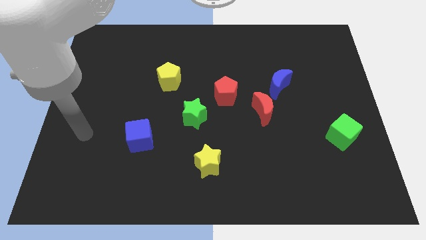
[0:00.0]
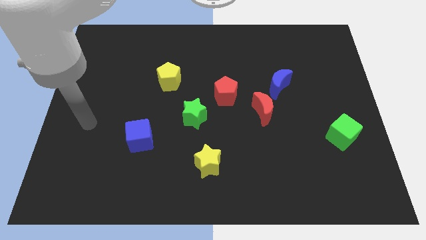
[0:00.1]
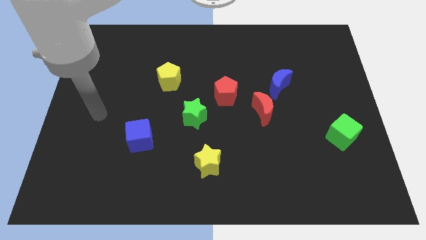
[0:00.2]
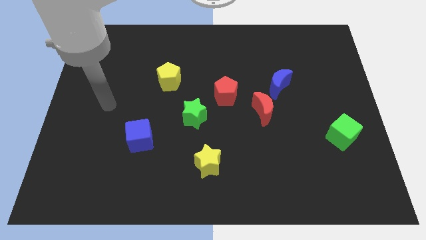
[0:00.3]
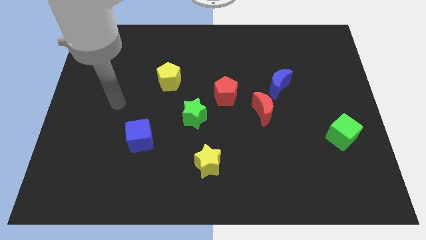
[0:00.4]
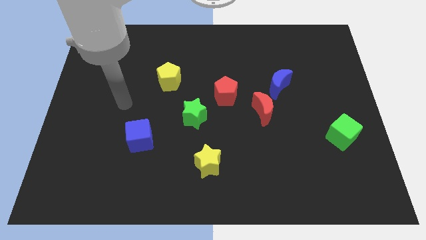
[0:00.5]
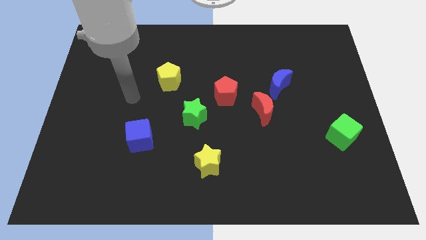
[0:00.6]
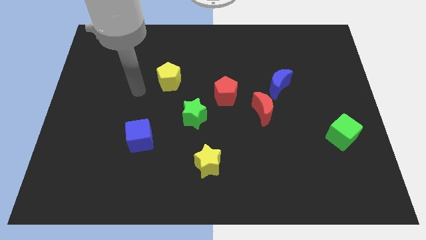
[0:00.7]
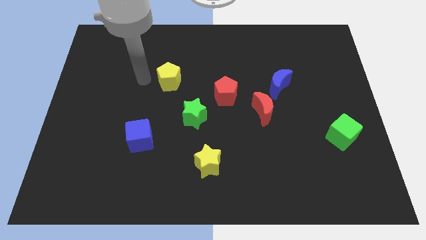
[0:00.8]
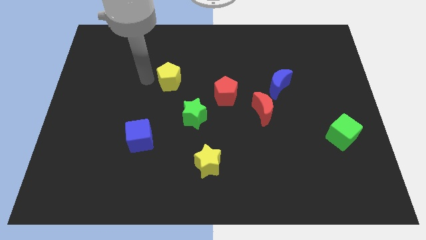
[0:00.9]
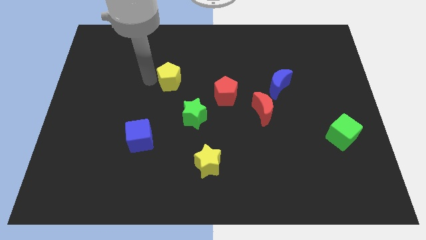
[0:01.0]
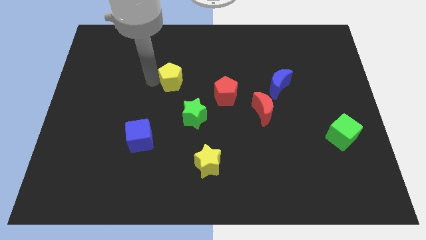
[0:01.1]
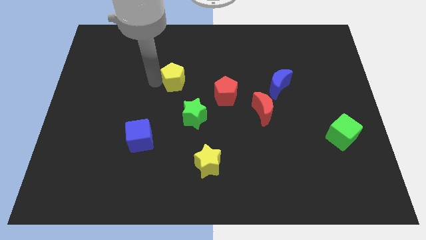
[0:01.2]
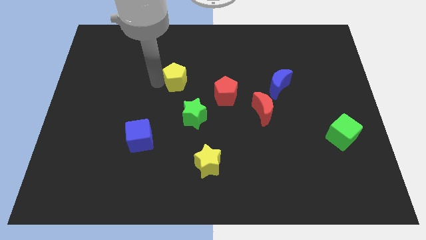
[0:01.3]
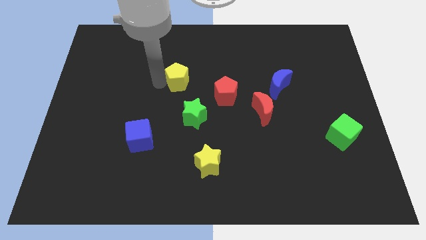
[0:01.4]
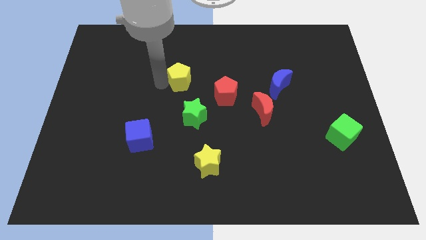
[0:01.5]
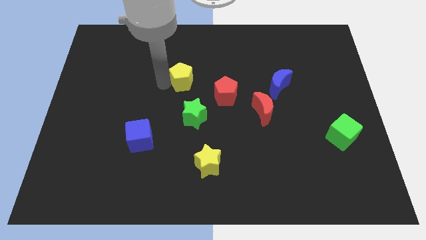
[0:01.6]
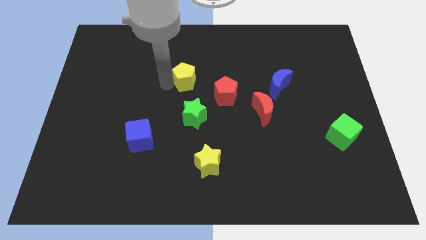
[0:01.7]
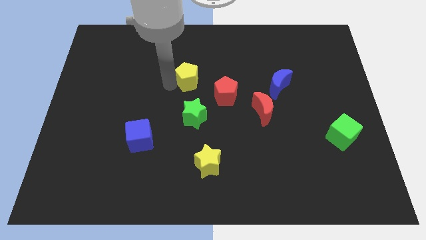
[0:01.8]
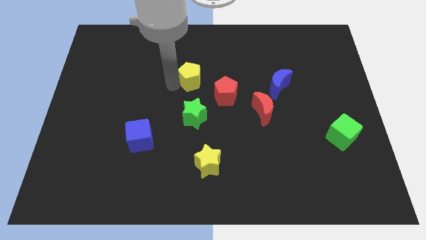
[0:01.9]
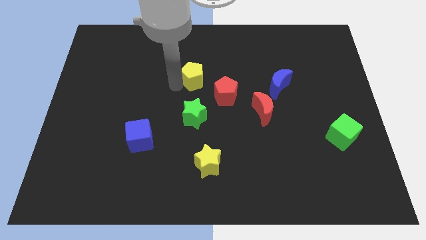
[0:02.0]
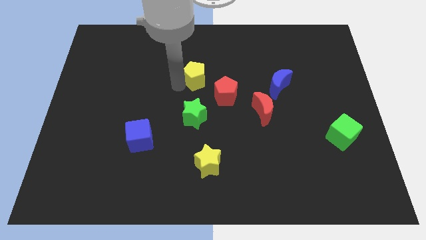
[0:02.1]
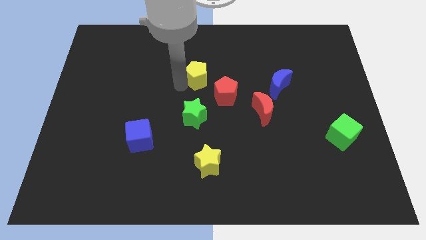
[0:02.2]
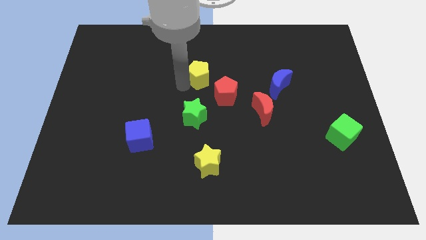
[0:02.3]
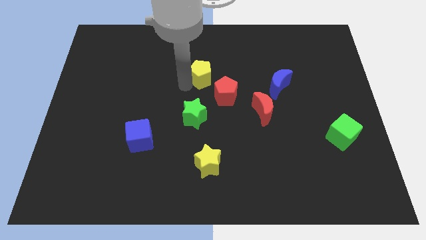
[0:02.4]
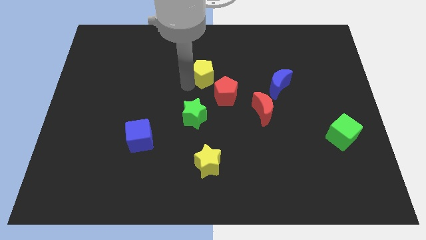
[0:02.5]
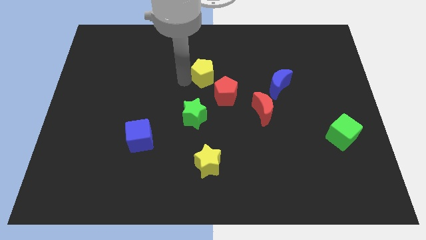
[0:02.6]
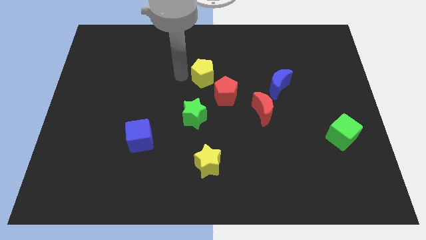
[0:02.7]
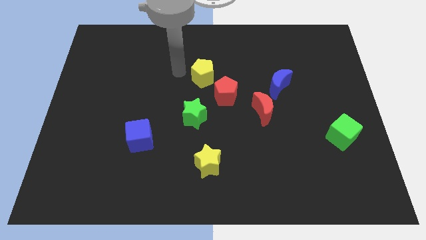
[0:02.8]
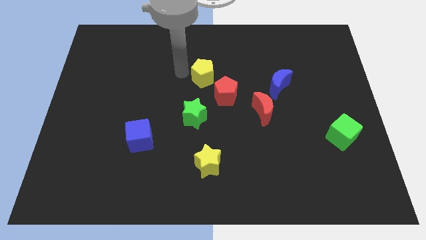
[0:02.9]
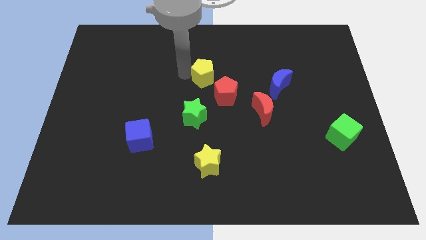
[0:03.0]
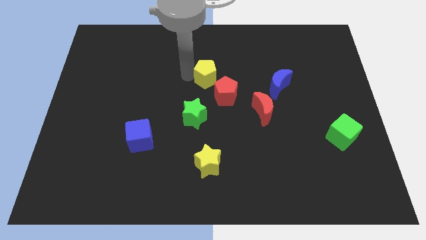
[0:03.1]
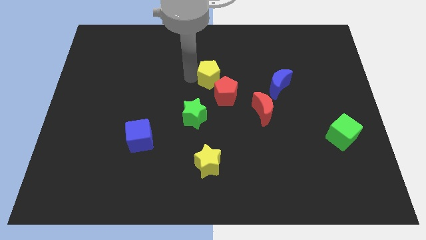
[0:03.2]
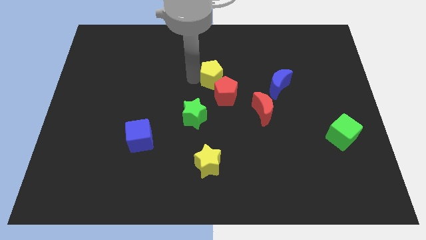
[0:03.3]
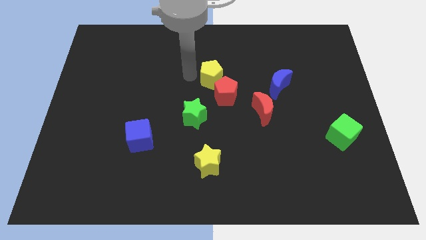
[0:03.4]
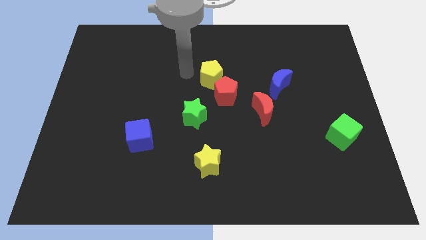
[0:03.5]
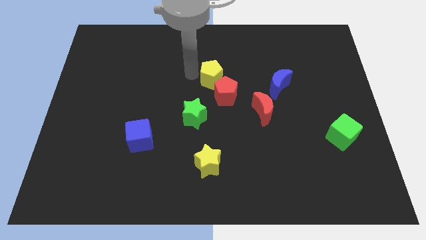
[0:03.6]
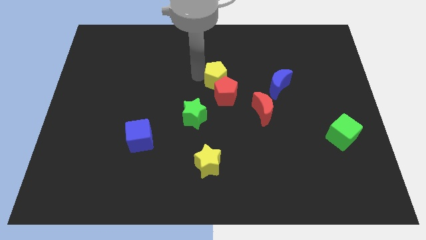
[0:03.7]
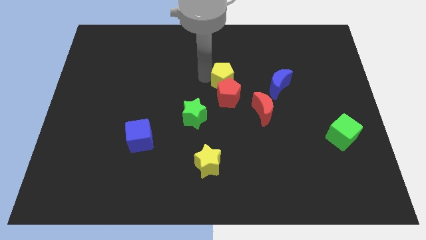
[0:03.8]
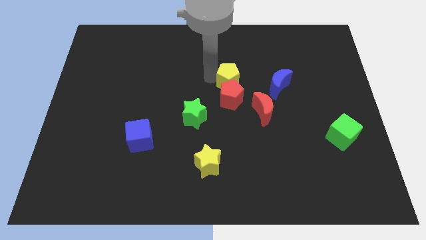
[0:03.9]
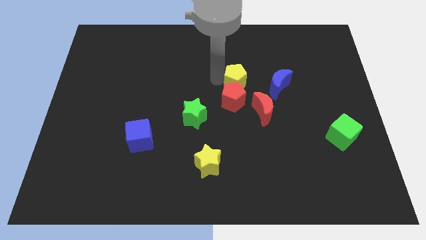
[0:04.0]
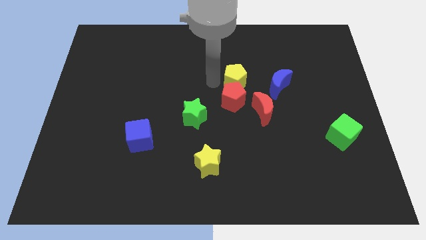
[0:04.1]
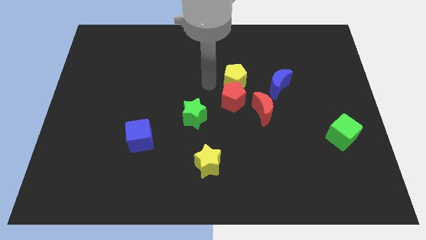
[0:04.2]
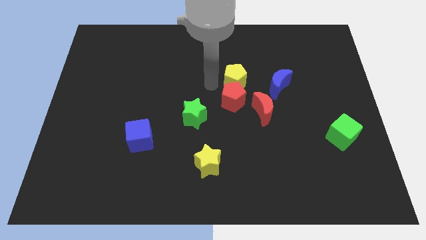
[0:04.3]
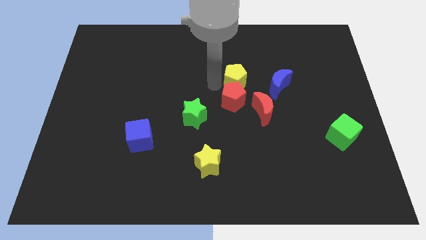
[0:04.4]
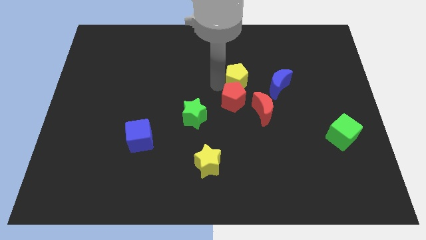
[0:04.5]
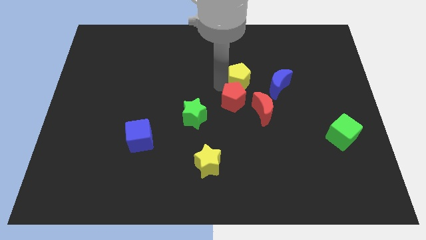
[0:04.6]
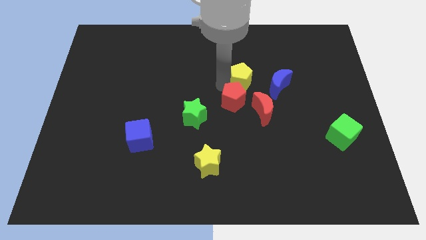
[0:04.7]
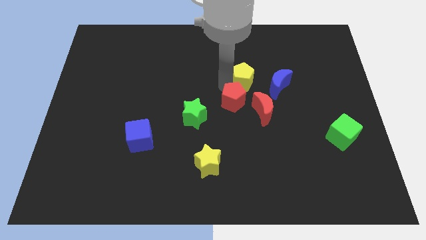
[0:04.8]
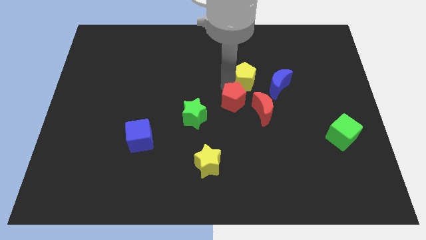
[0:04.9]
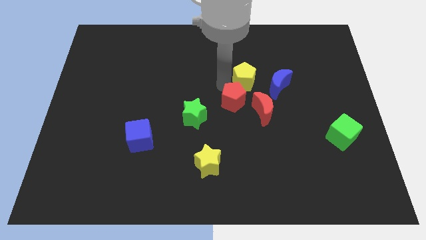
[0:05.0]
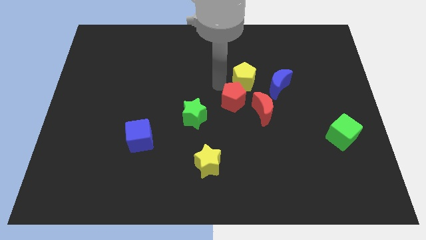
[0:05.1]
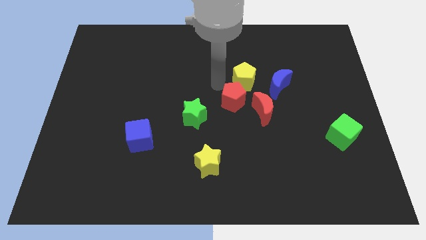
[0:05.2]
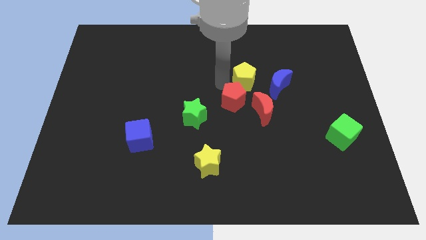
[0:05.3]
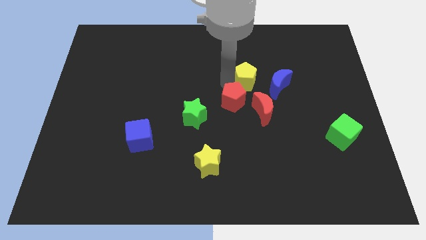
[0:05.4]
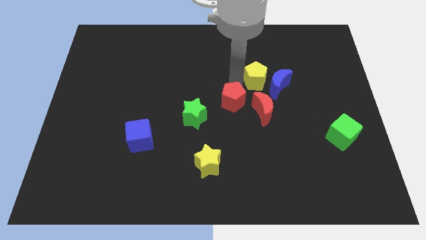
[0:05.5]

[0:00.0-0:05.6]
move the yellow pentagon right

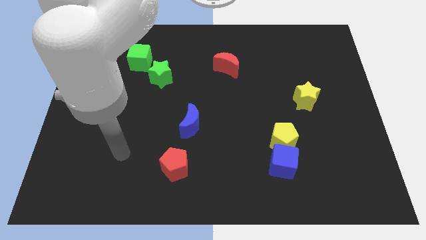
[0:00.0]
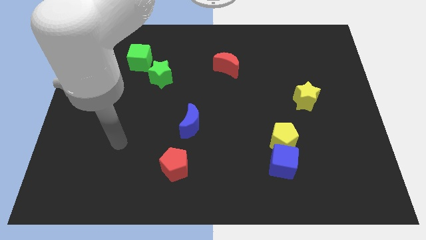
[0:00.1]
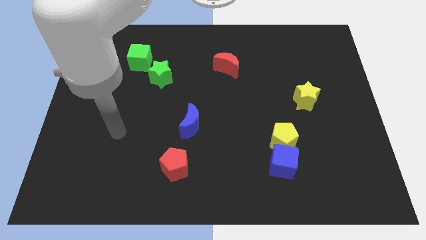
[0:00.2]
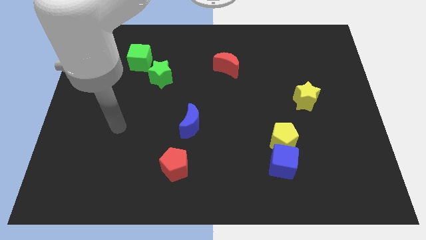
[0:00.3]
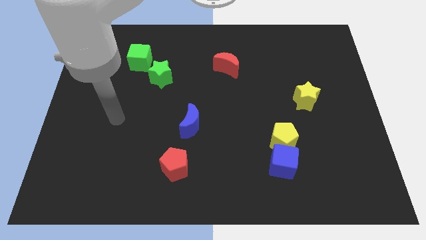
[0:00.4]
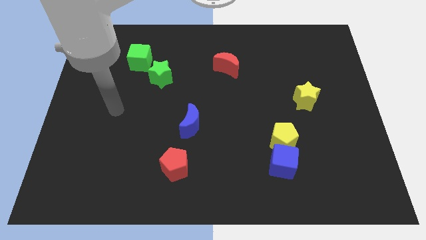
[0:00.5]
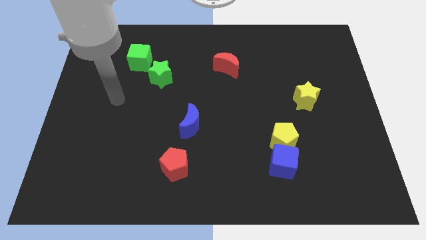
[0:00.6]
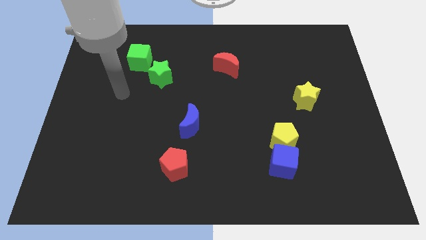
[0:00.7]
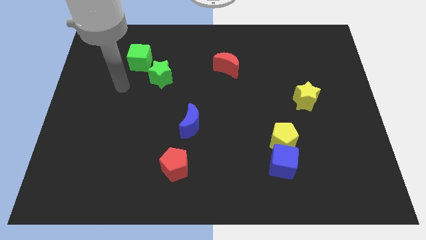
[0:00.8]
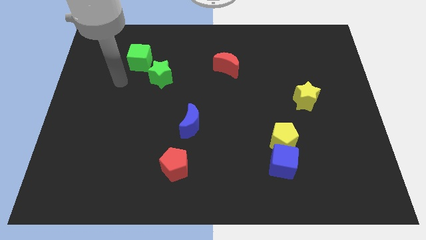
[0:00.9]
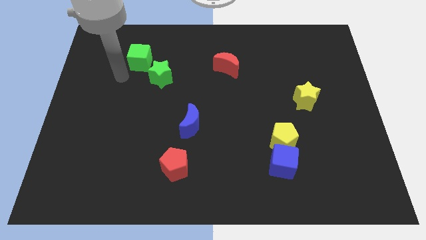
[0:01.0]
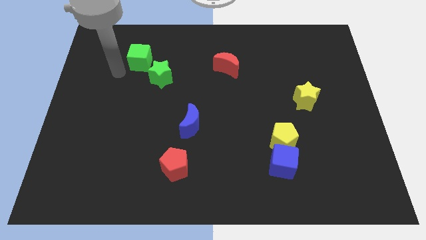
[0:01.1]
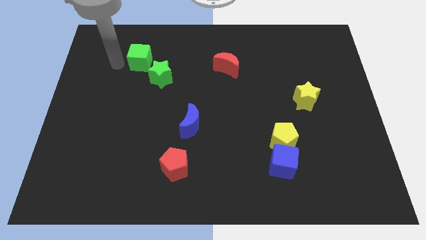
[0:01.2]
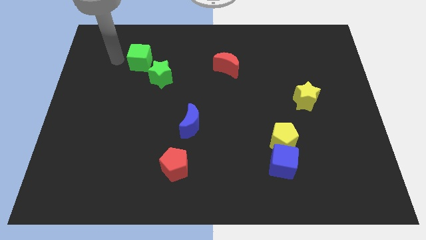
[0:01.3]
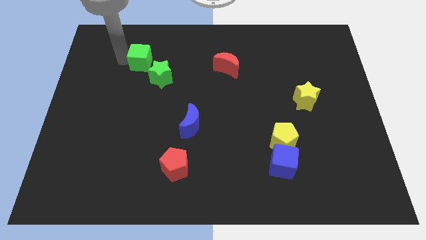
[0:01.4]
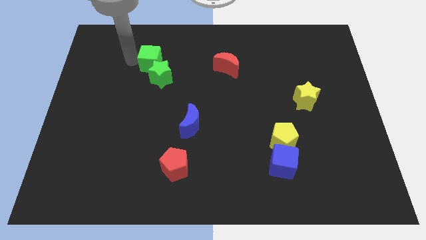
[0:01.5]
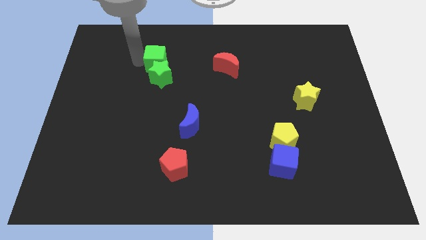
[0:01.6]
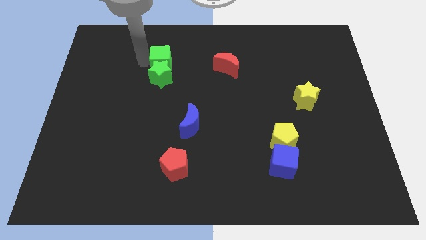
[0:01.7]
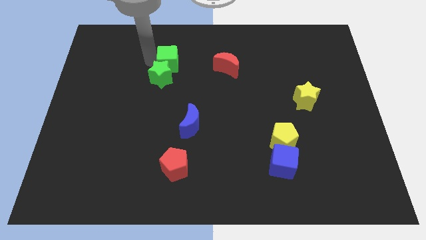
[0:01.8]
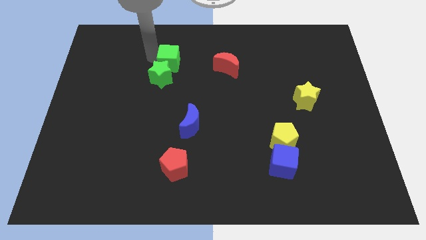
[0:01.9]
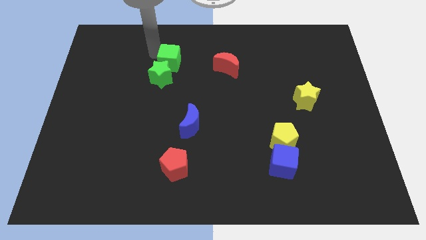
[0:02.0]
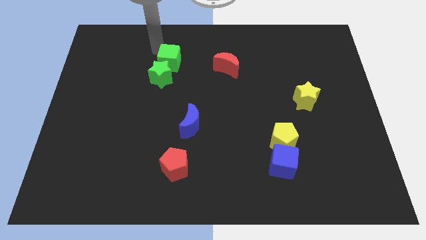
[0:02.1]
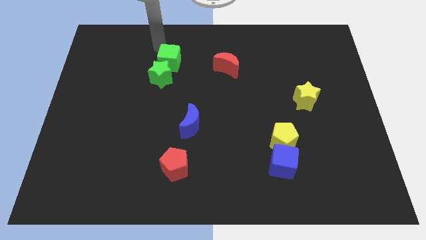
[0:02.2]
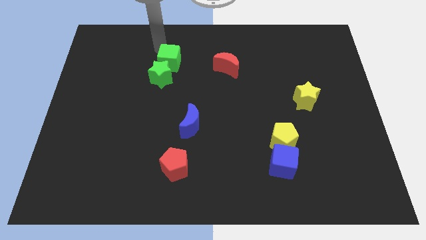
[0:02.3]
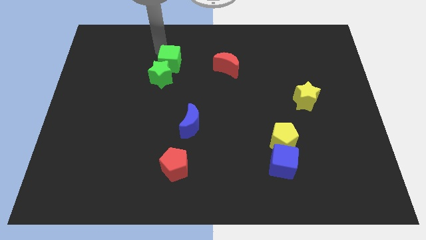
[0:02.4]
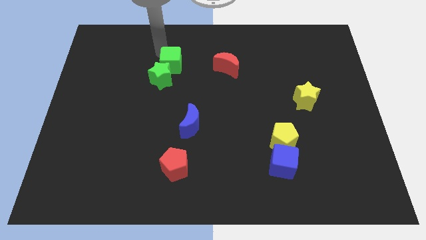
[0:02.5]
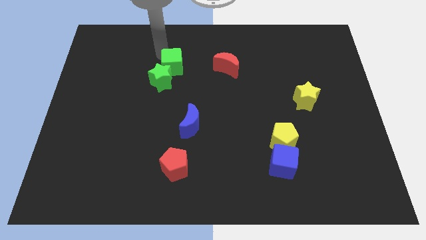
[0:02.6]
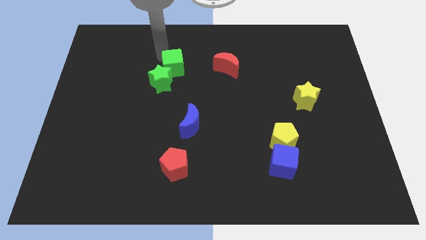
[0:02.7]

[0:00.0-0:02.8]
slightly move the green cube downwards and then right
